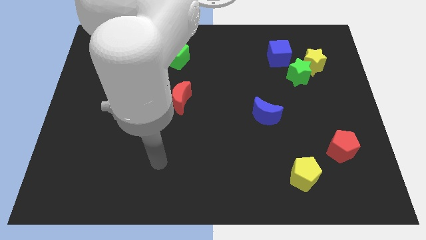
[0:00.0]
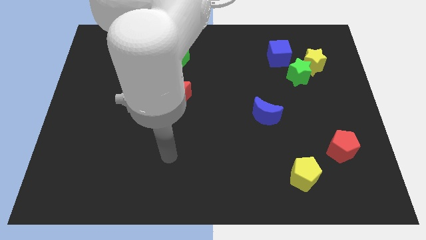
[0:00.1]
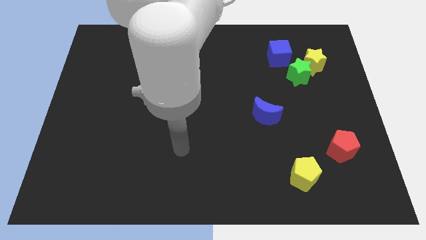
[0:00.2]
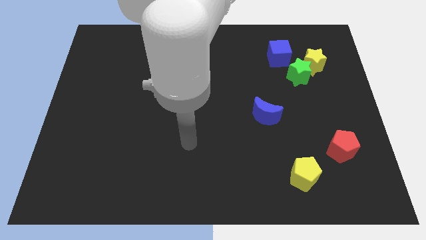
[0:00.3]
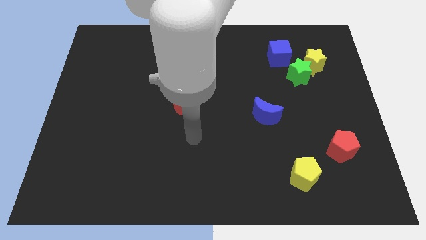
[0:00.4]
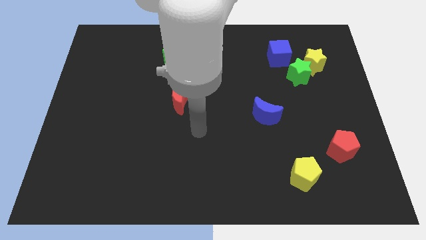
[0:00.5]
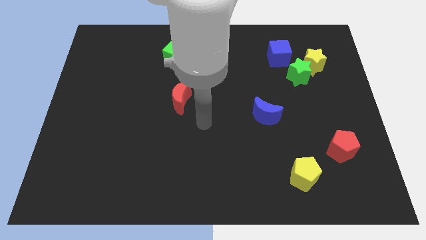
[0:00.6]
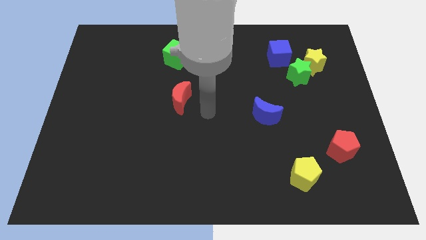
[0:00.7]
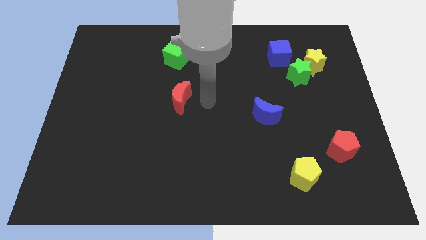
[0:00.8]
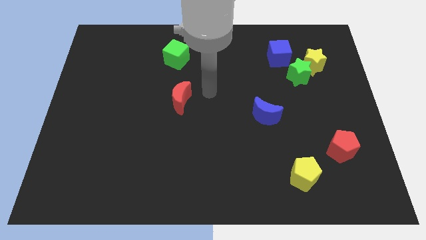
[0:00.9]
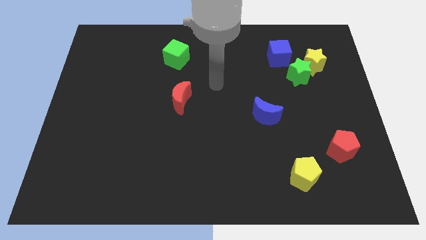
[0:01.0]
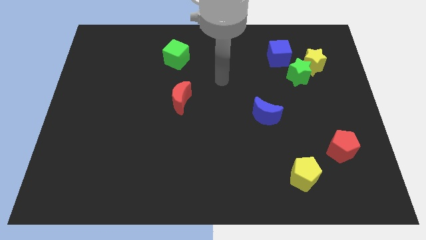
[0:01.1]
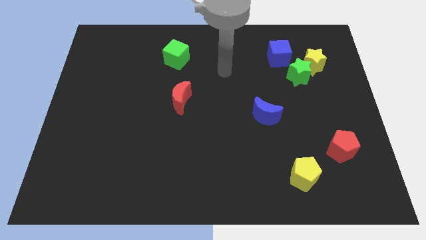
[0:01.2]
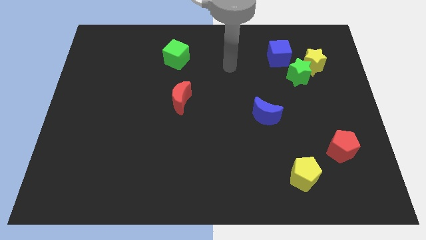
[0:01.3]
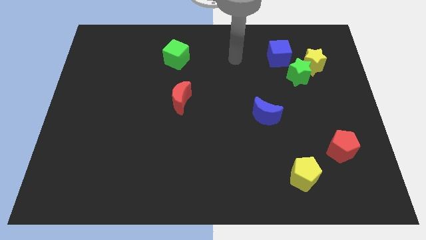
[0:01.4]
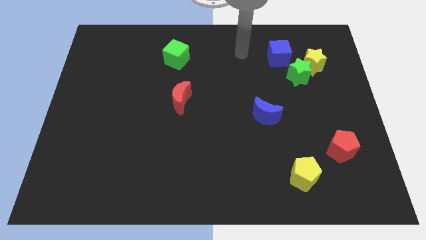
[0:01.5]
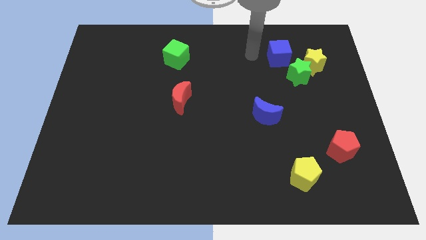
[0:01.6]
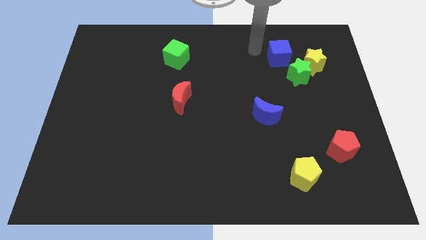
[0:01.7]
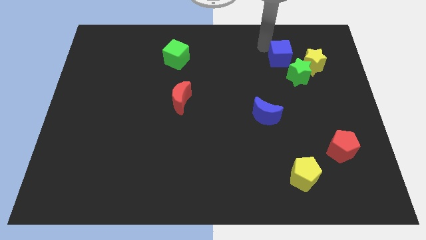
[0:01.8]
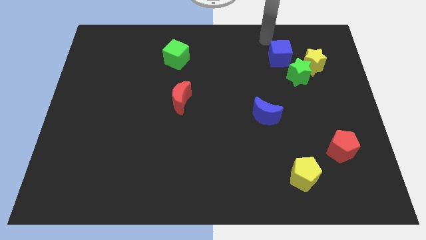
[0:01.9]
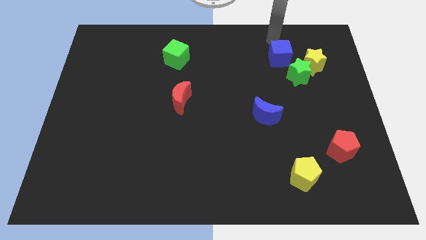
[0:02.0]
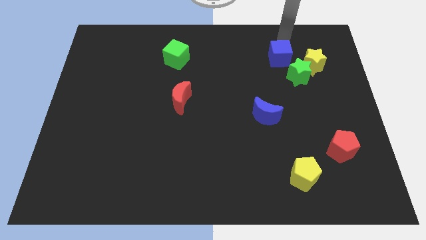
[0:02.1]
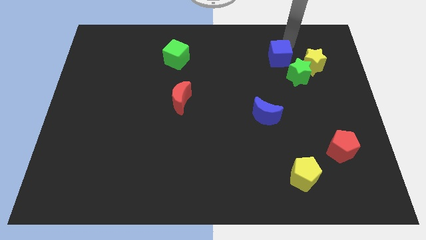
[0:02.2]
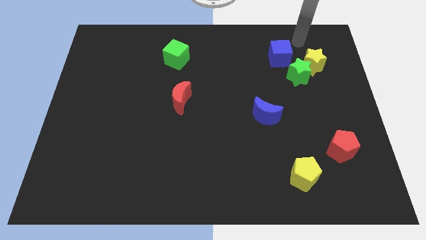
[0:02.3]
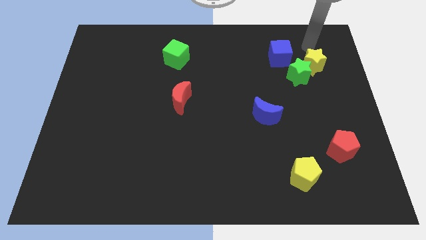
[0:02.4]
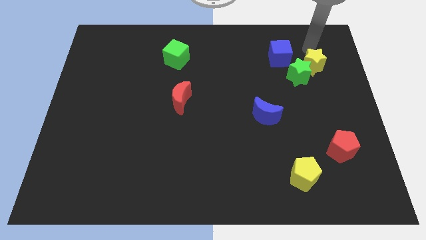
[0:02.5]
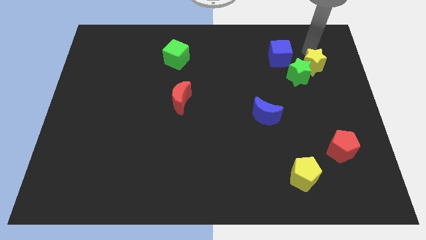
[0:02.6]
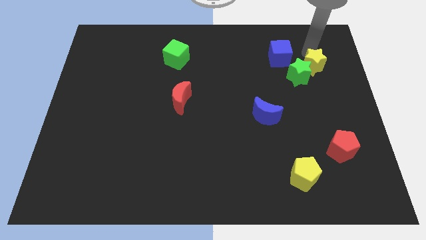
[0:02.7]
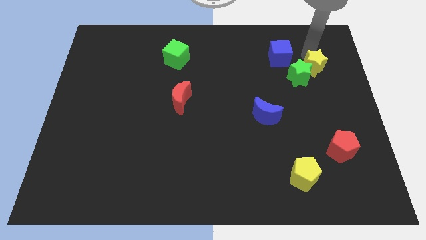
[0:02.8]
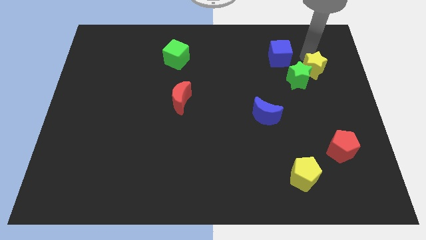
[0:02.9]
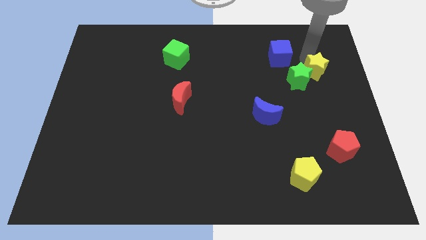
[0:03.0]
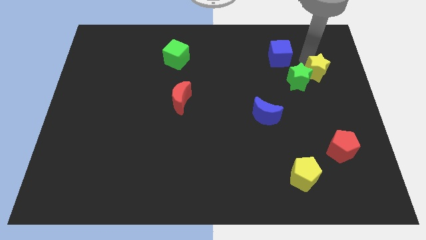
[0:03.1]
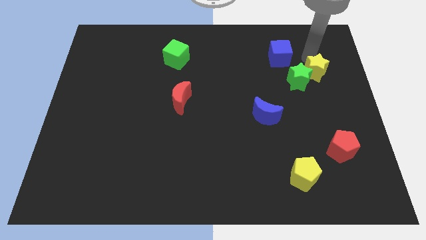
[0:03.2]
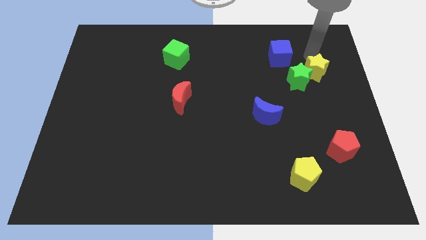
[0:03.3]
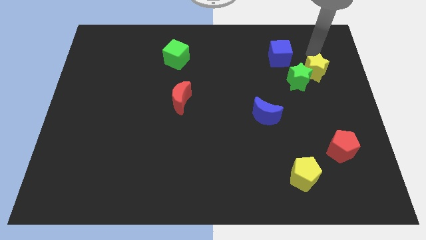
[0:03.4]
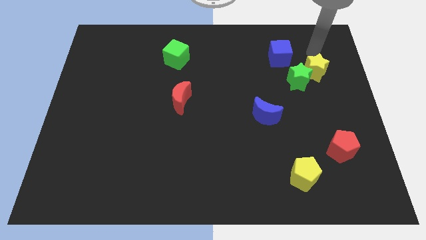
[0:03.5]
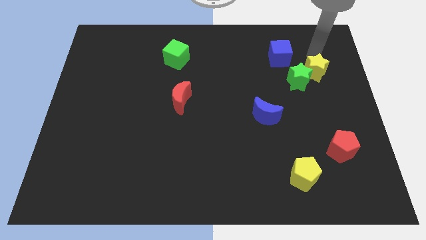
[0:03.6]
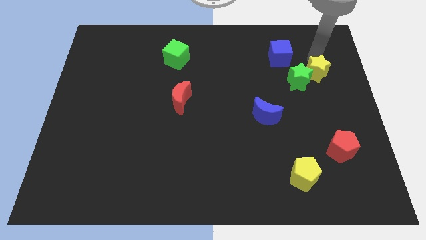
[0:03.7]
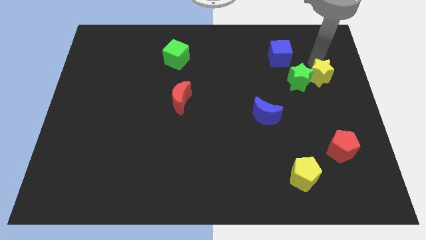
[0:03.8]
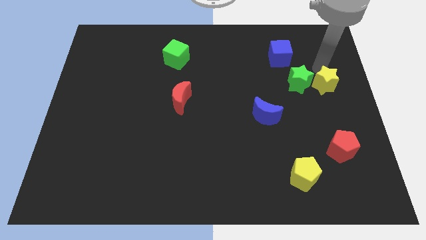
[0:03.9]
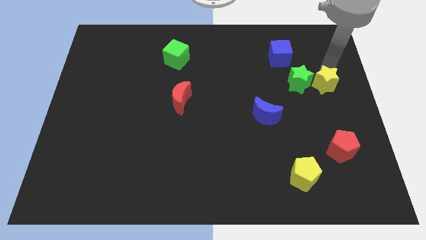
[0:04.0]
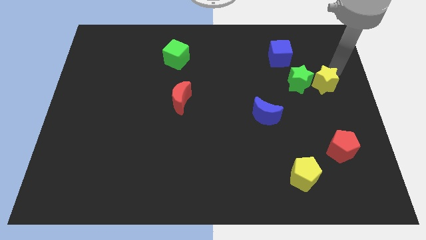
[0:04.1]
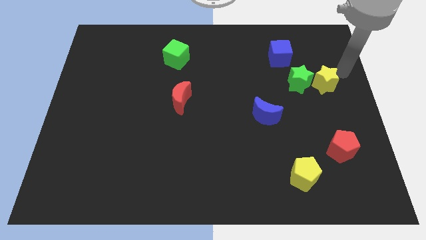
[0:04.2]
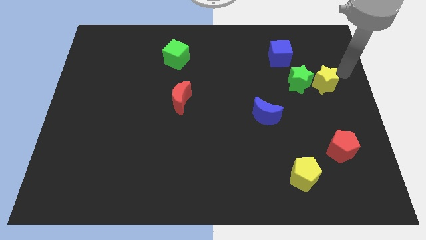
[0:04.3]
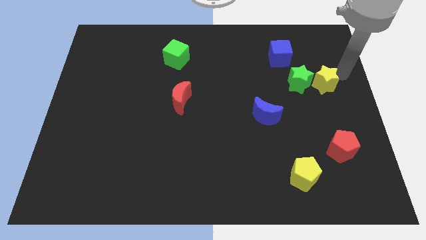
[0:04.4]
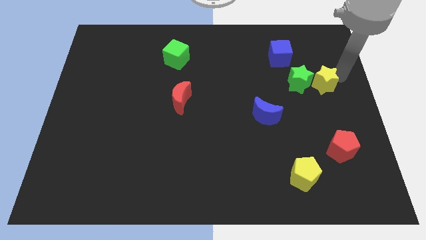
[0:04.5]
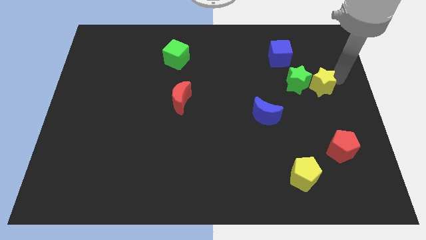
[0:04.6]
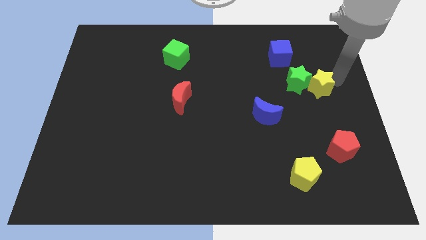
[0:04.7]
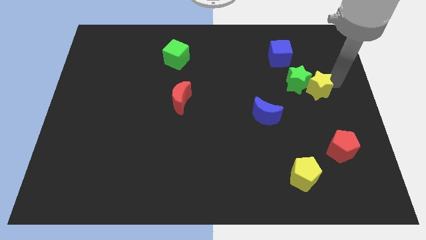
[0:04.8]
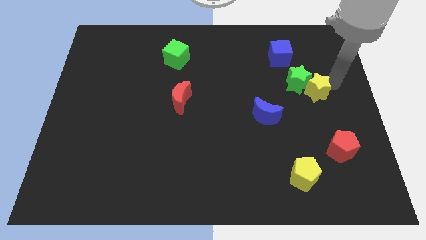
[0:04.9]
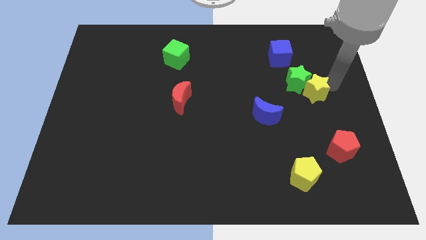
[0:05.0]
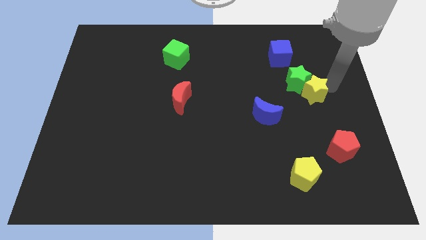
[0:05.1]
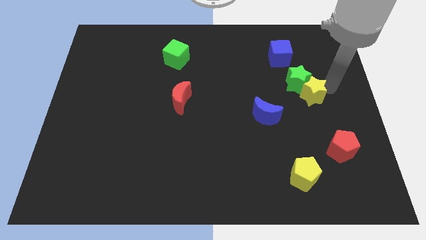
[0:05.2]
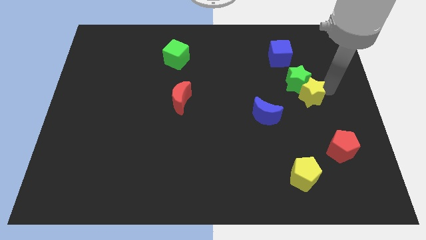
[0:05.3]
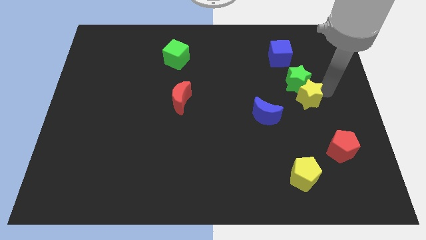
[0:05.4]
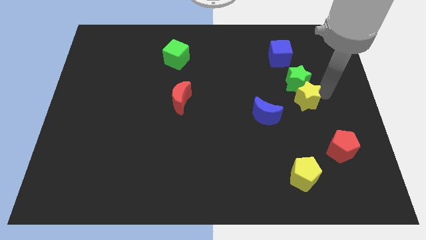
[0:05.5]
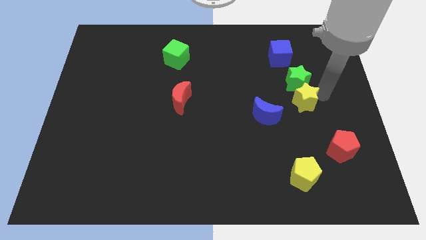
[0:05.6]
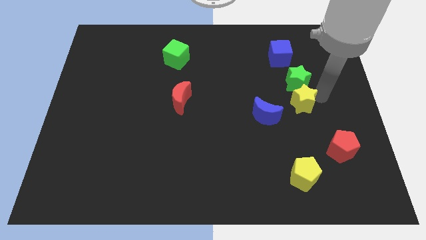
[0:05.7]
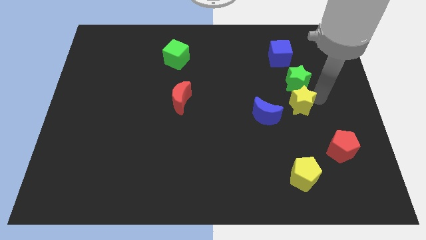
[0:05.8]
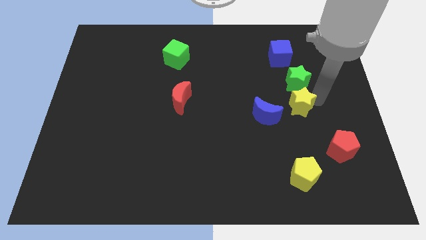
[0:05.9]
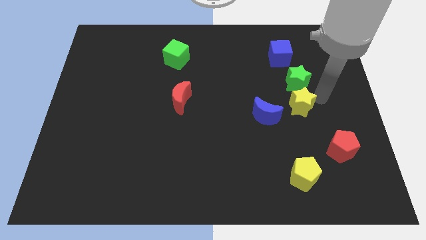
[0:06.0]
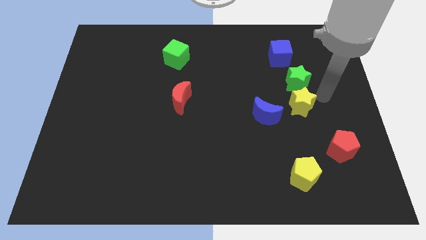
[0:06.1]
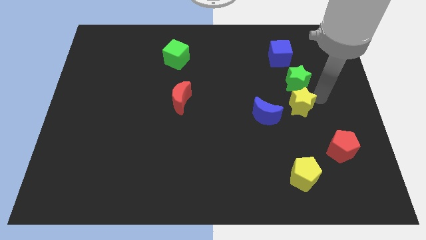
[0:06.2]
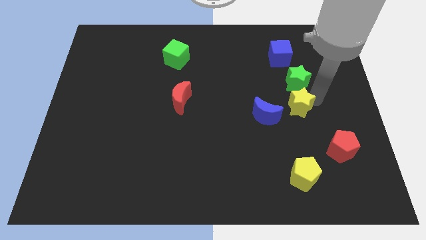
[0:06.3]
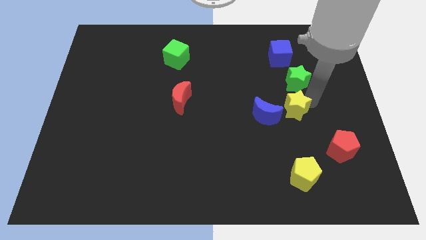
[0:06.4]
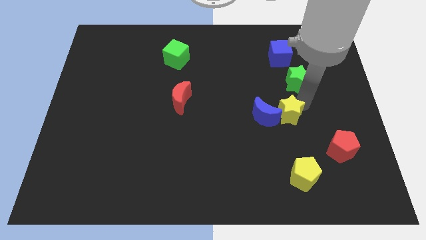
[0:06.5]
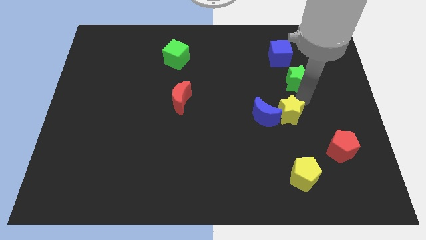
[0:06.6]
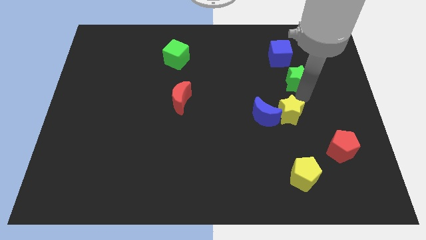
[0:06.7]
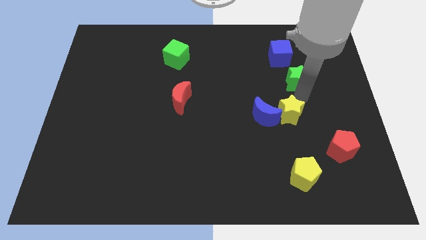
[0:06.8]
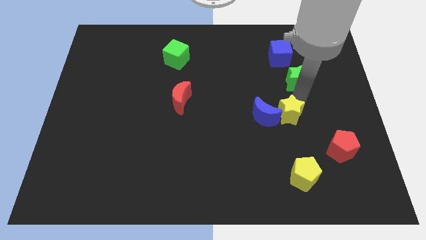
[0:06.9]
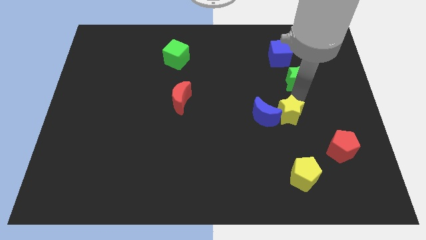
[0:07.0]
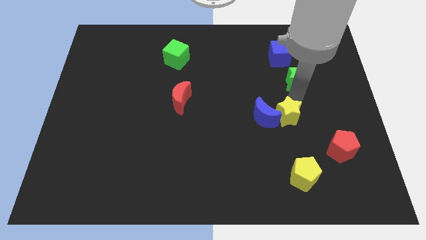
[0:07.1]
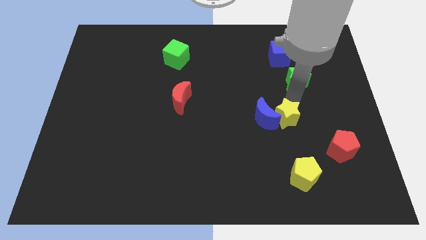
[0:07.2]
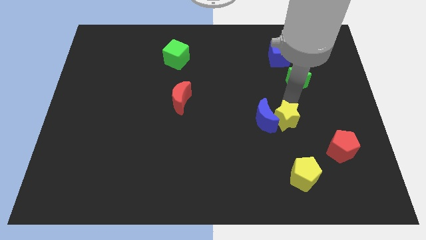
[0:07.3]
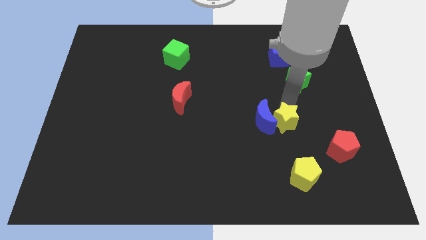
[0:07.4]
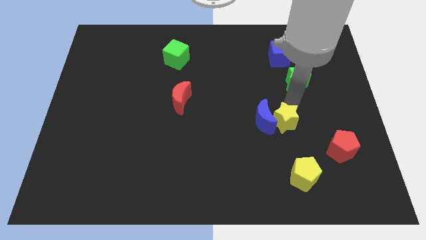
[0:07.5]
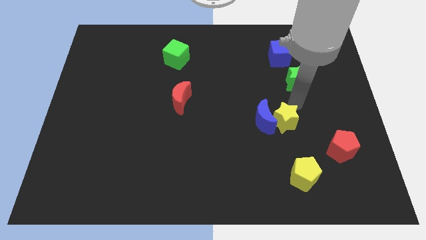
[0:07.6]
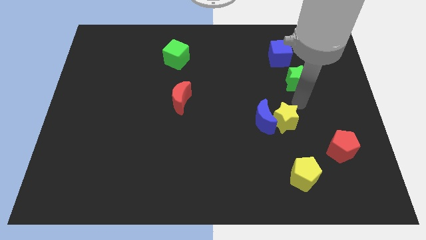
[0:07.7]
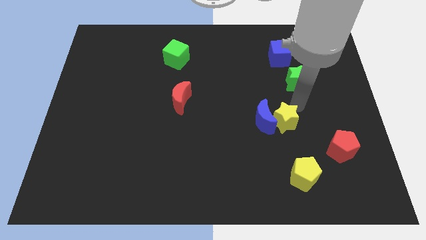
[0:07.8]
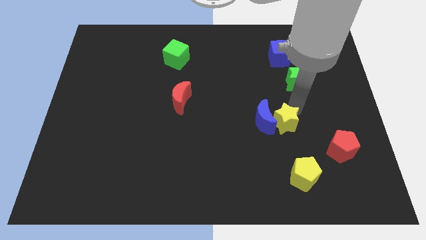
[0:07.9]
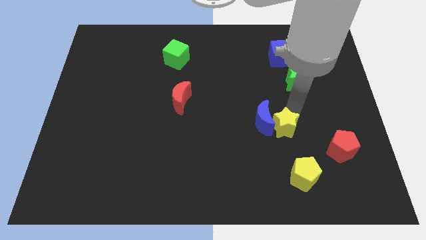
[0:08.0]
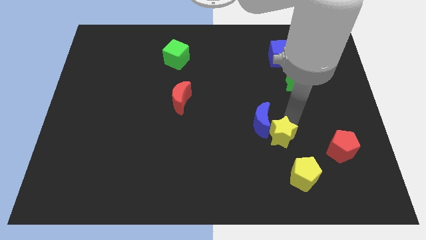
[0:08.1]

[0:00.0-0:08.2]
slide the yellow star diagonally downwards and left
